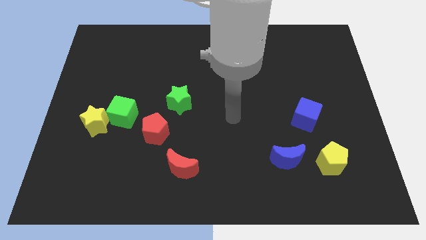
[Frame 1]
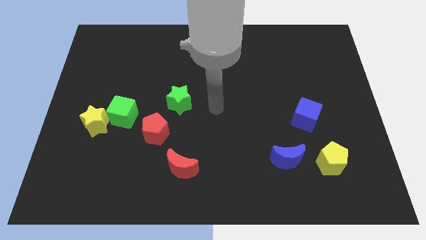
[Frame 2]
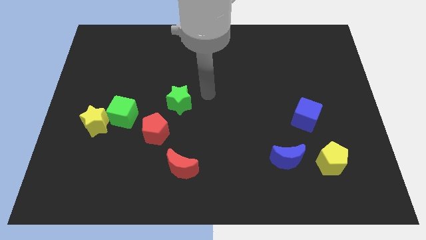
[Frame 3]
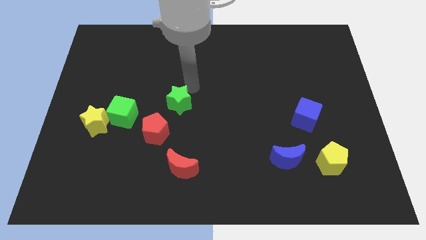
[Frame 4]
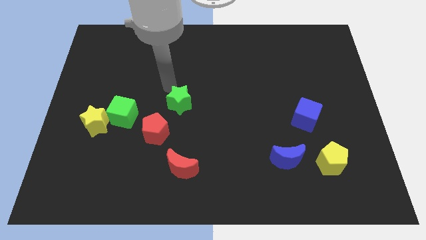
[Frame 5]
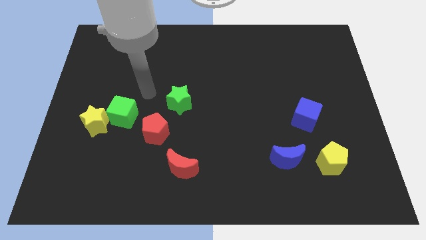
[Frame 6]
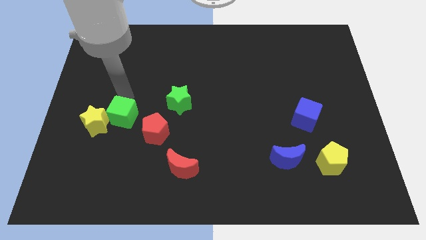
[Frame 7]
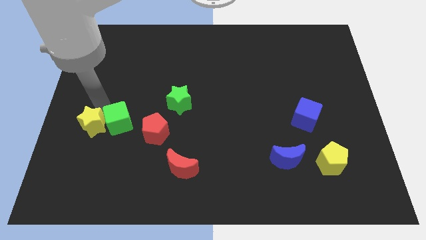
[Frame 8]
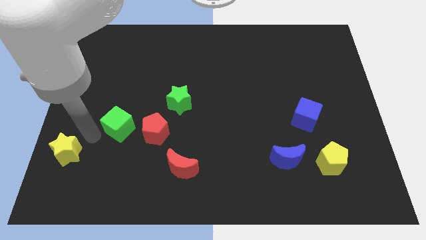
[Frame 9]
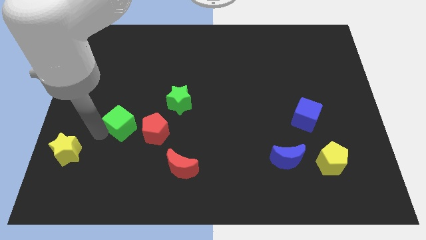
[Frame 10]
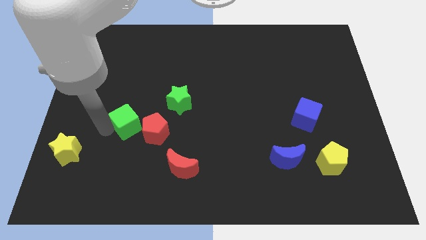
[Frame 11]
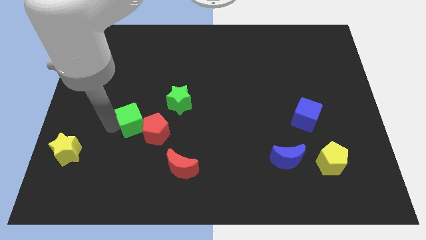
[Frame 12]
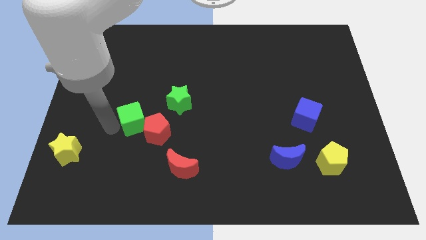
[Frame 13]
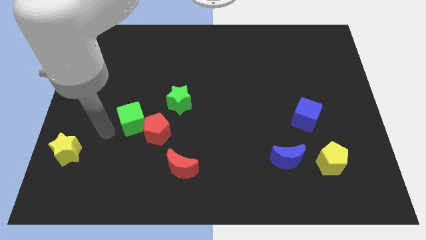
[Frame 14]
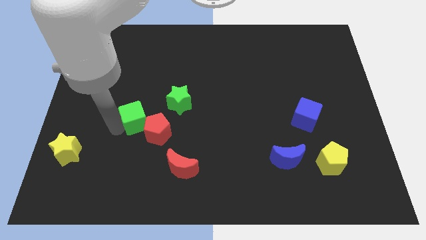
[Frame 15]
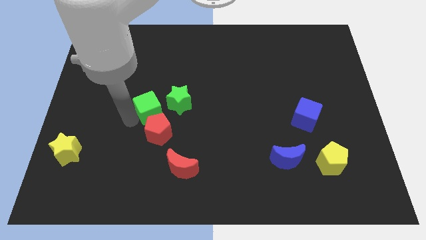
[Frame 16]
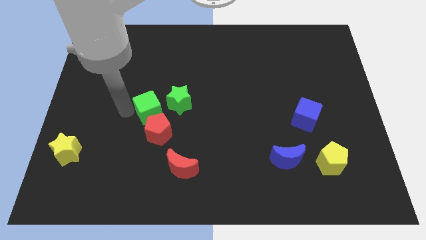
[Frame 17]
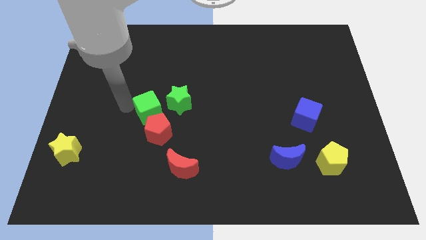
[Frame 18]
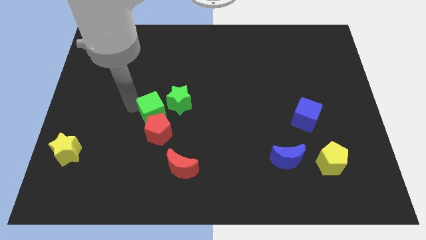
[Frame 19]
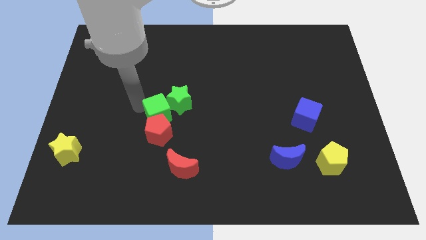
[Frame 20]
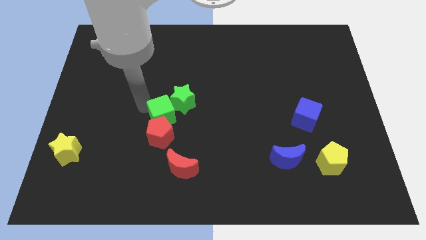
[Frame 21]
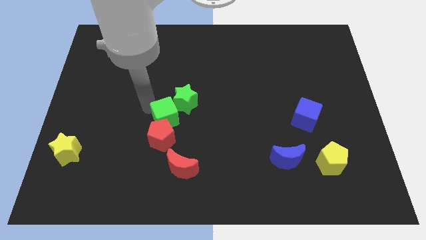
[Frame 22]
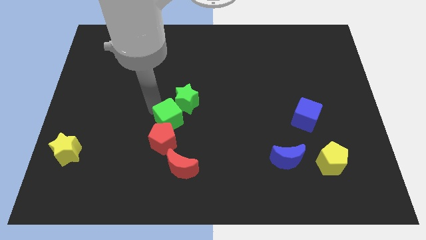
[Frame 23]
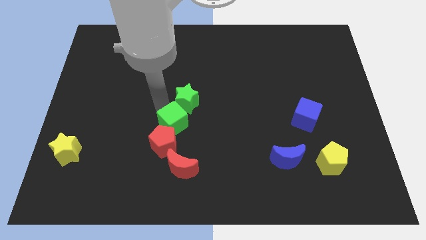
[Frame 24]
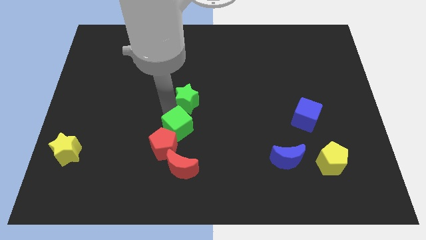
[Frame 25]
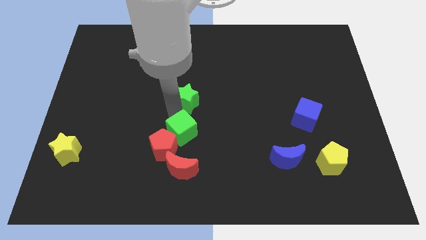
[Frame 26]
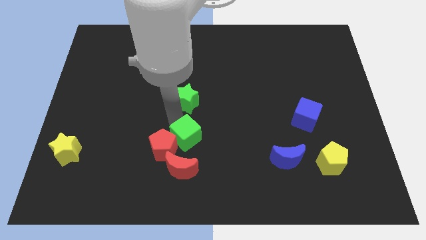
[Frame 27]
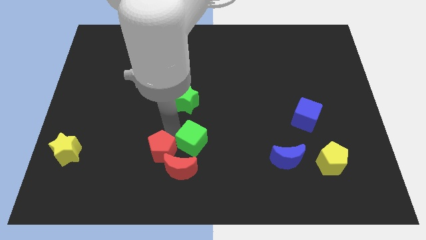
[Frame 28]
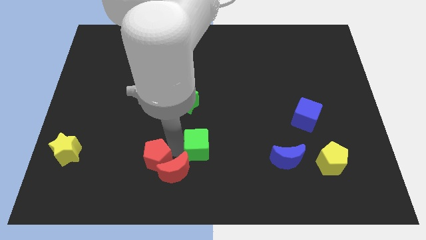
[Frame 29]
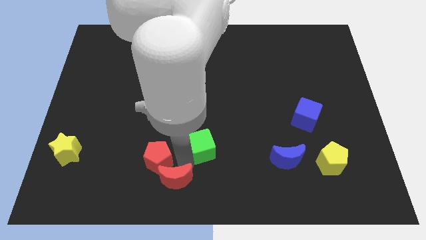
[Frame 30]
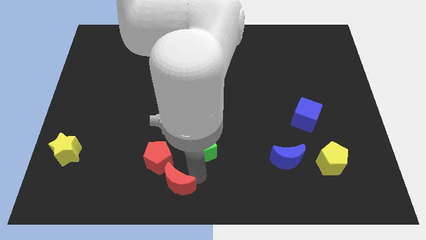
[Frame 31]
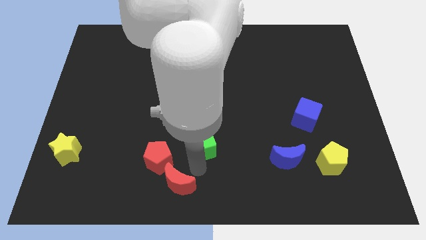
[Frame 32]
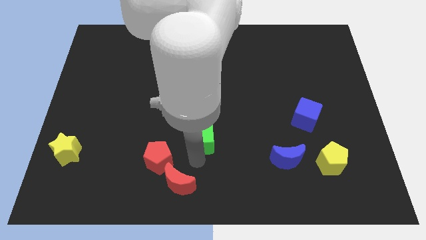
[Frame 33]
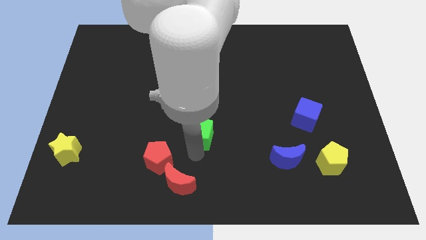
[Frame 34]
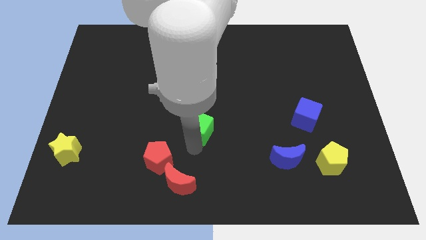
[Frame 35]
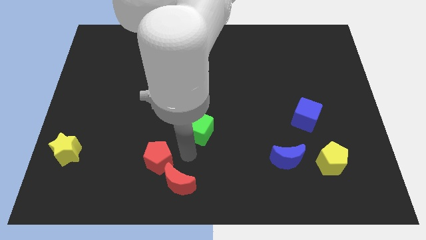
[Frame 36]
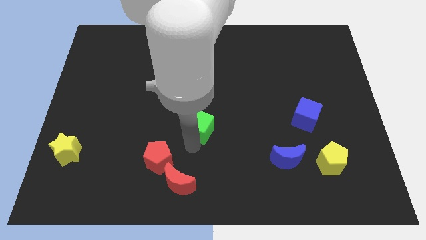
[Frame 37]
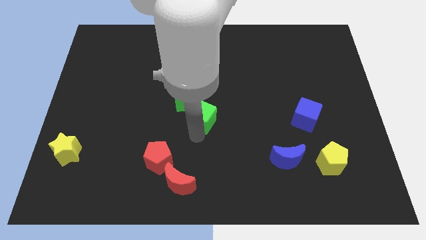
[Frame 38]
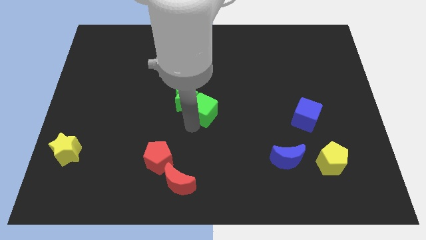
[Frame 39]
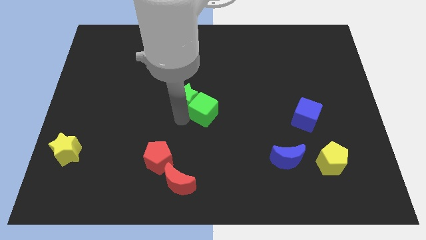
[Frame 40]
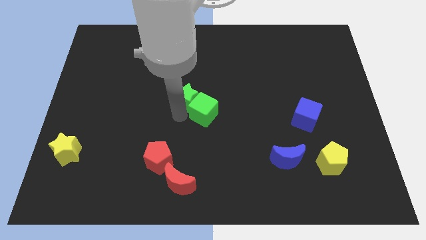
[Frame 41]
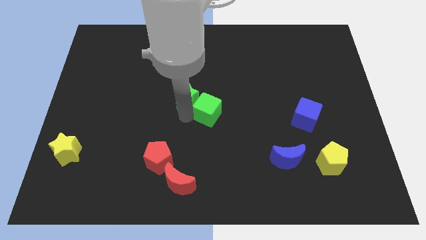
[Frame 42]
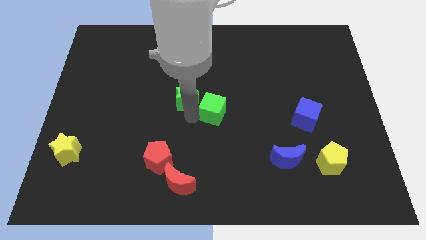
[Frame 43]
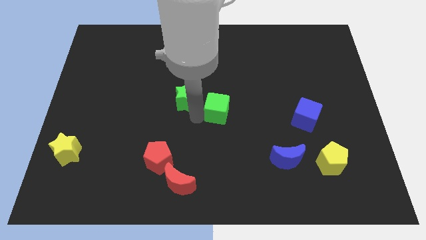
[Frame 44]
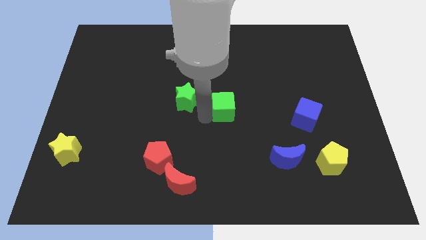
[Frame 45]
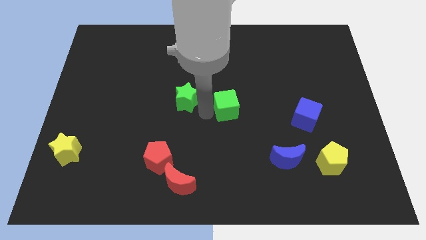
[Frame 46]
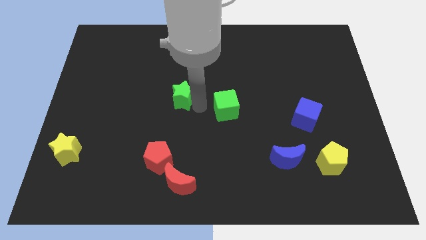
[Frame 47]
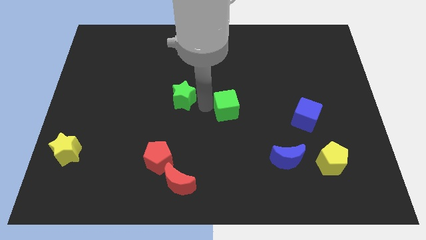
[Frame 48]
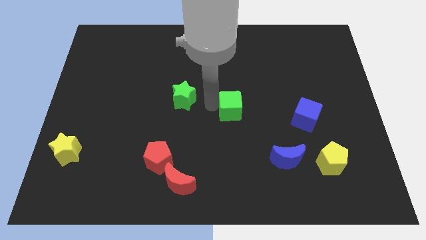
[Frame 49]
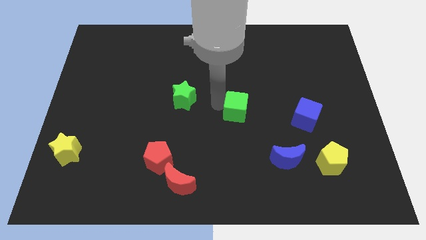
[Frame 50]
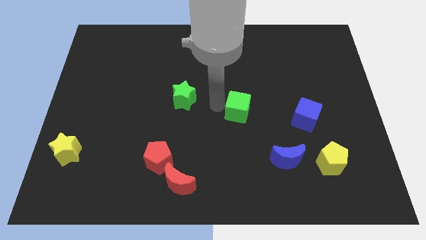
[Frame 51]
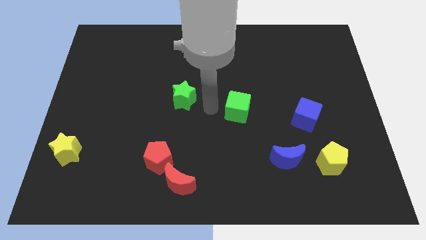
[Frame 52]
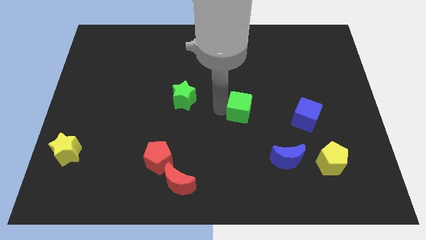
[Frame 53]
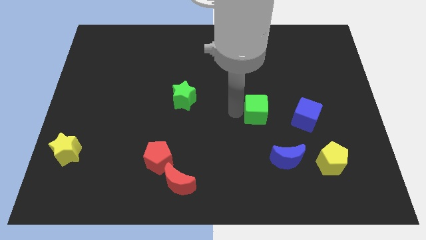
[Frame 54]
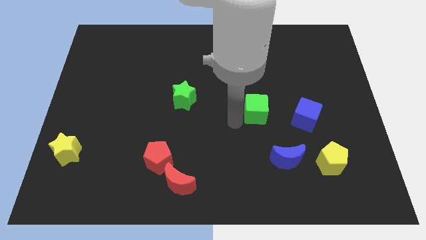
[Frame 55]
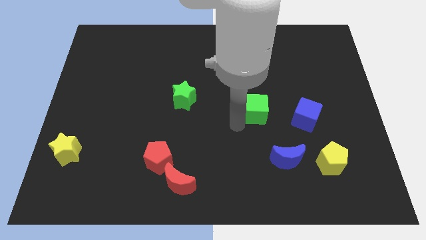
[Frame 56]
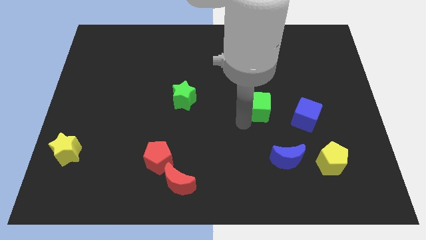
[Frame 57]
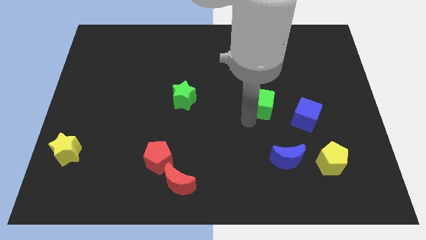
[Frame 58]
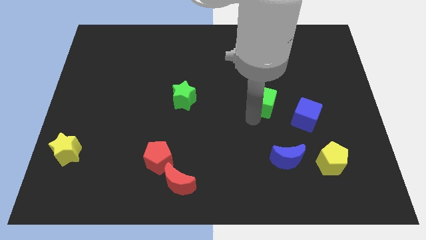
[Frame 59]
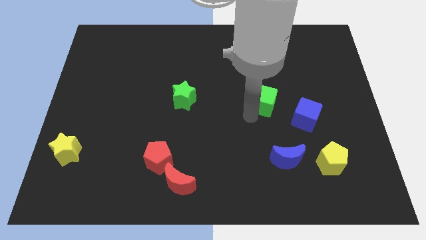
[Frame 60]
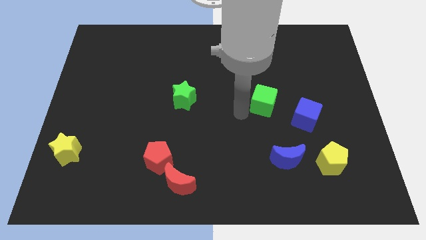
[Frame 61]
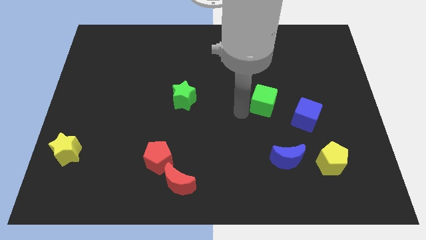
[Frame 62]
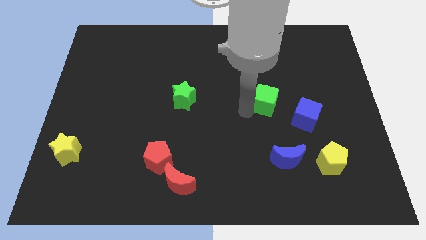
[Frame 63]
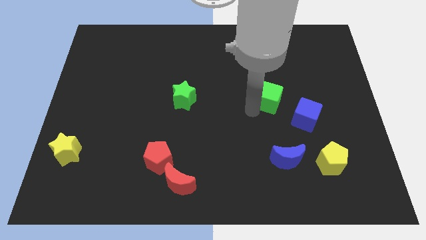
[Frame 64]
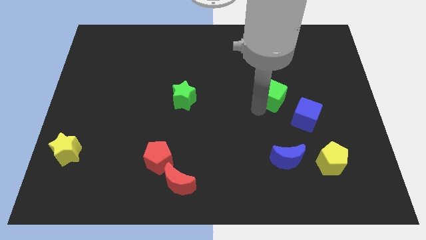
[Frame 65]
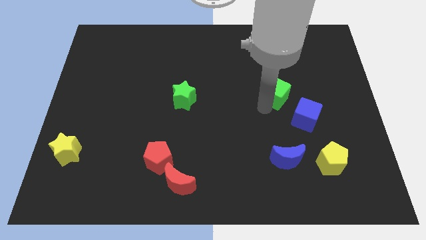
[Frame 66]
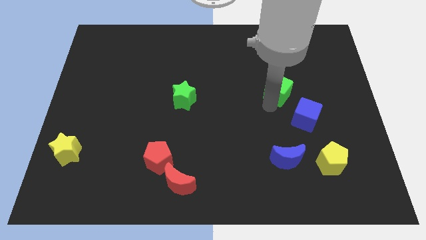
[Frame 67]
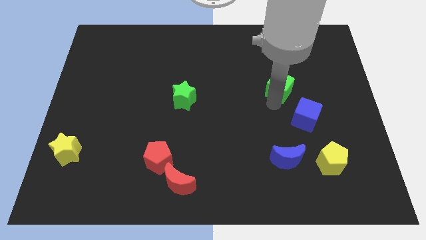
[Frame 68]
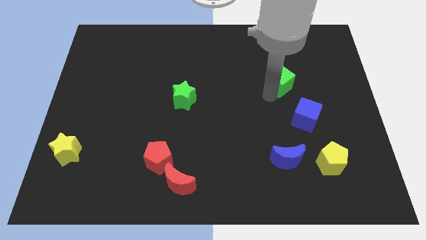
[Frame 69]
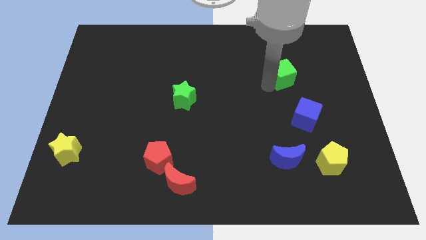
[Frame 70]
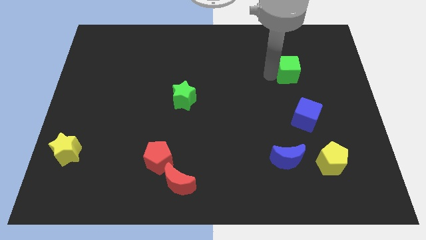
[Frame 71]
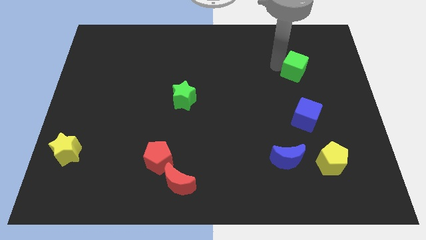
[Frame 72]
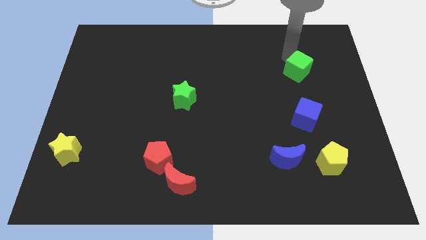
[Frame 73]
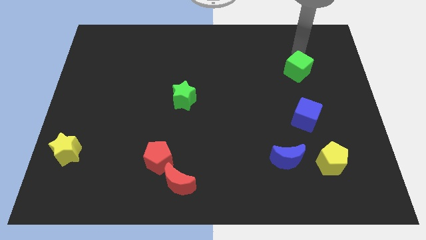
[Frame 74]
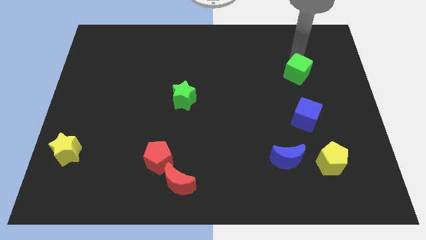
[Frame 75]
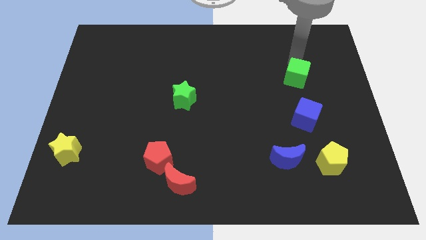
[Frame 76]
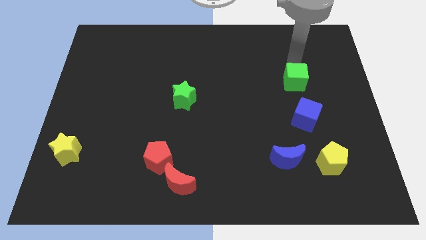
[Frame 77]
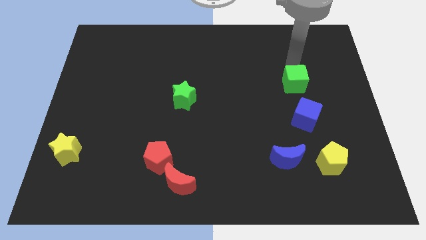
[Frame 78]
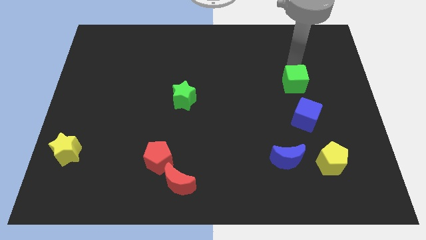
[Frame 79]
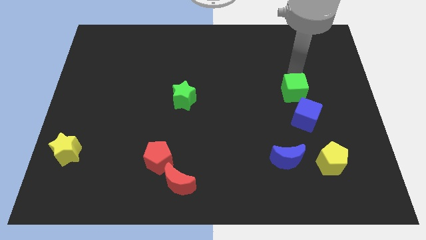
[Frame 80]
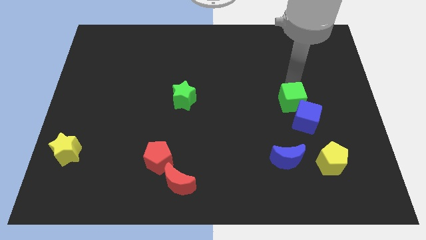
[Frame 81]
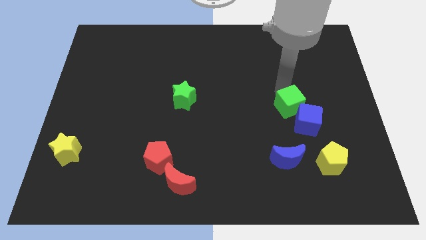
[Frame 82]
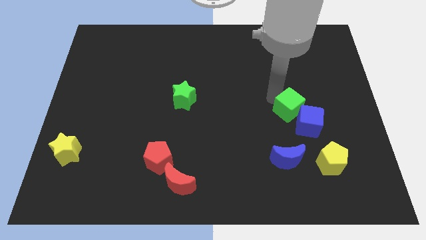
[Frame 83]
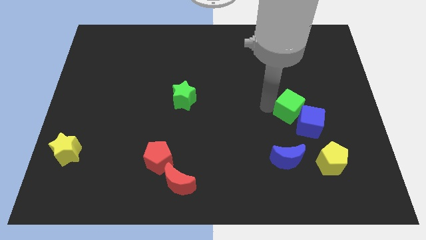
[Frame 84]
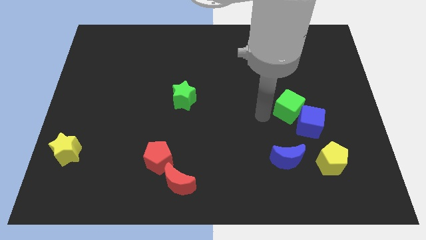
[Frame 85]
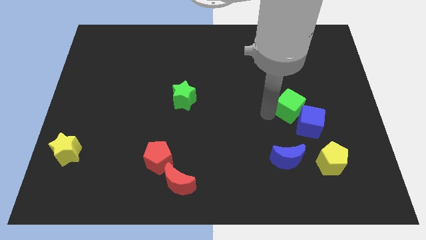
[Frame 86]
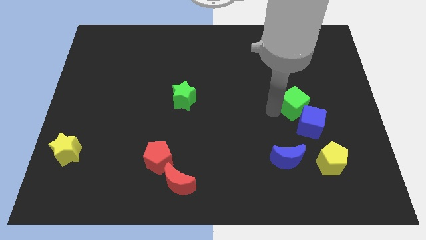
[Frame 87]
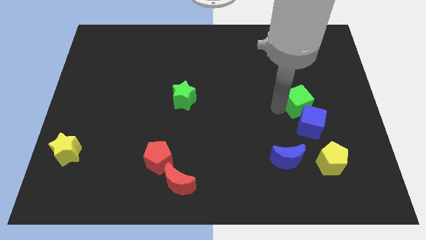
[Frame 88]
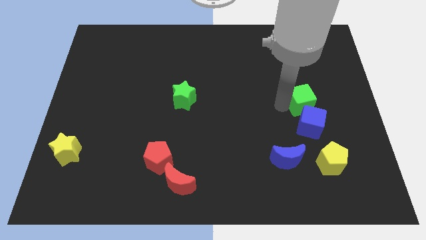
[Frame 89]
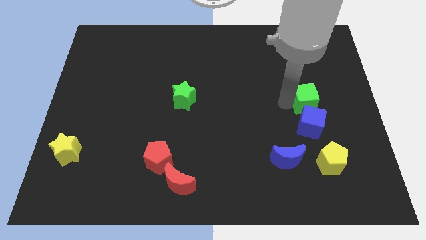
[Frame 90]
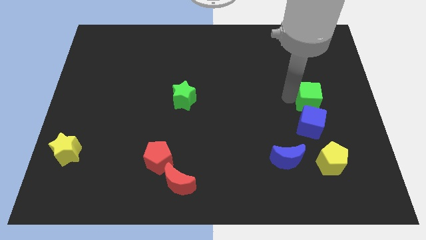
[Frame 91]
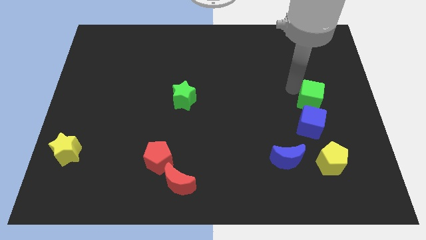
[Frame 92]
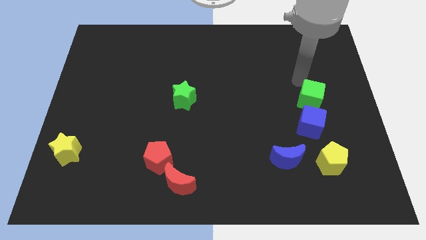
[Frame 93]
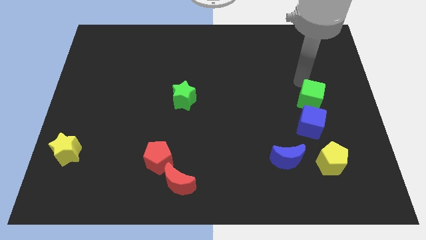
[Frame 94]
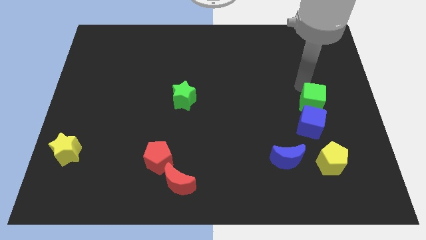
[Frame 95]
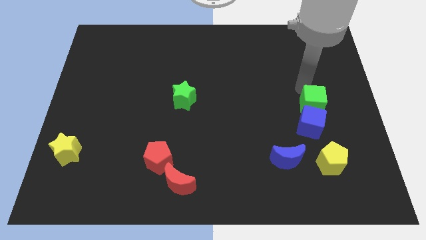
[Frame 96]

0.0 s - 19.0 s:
move the green cube to the top side of the yellow pentagon
